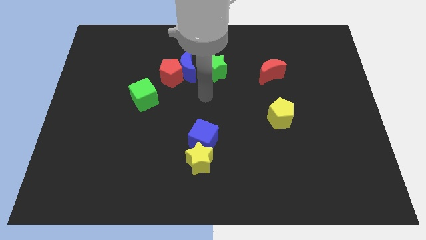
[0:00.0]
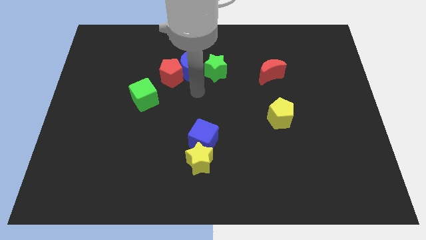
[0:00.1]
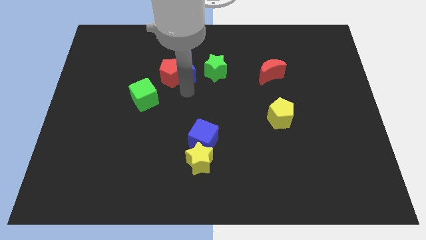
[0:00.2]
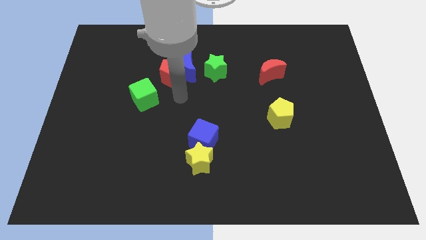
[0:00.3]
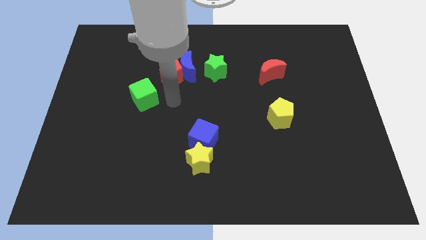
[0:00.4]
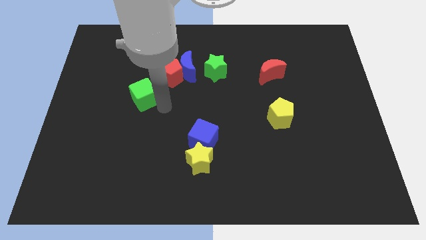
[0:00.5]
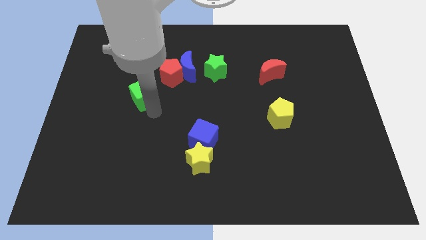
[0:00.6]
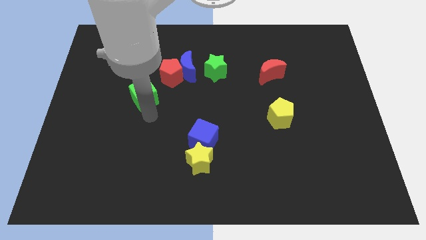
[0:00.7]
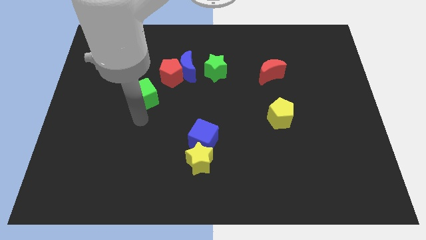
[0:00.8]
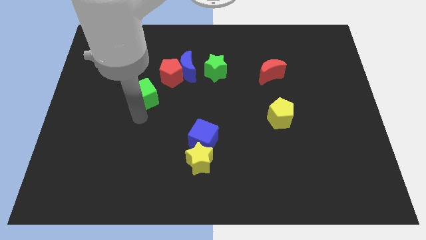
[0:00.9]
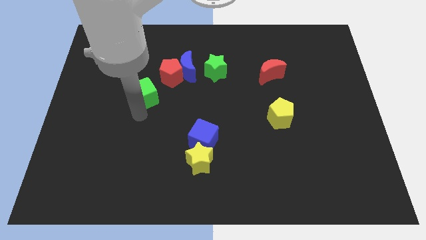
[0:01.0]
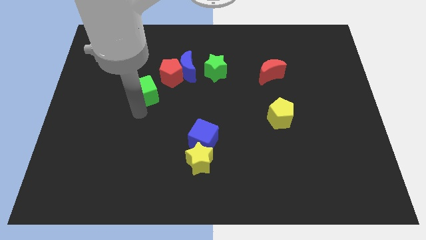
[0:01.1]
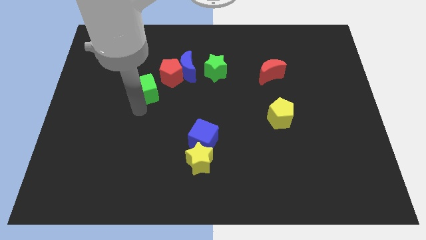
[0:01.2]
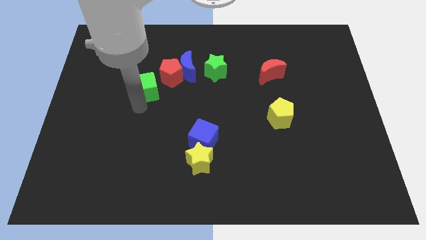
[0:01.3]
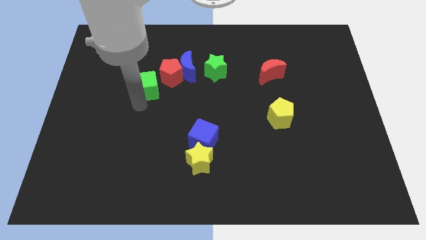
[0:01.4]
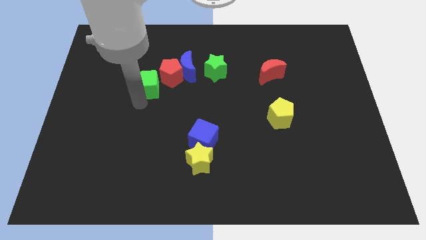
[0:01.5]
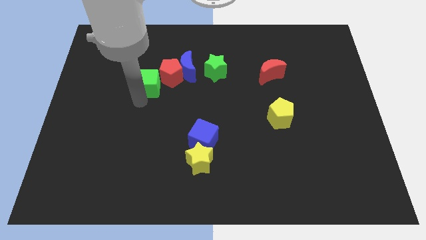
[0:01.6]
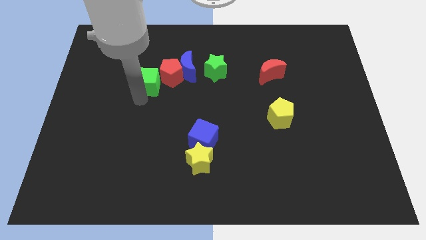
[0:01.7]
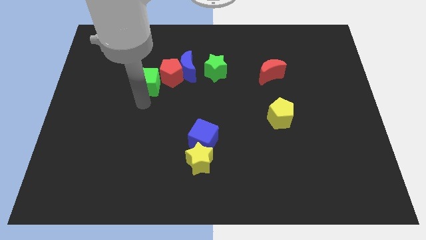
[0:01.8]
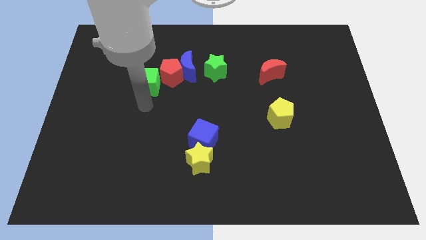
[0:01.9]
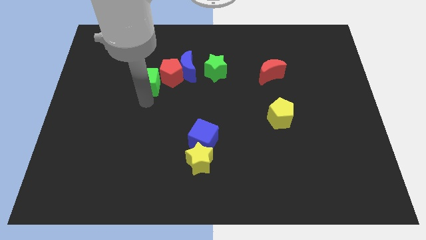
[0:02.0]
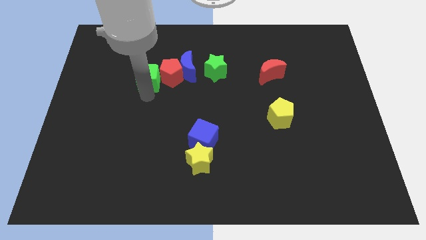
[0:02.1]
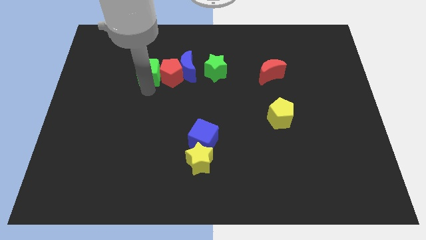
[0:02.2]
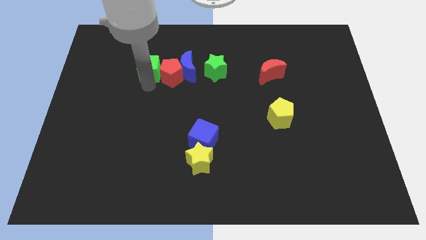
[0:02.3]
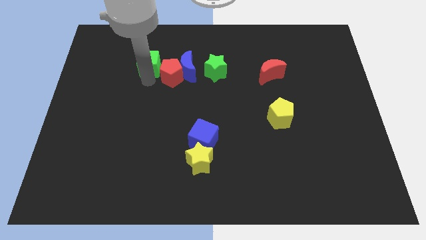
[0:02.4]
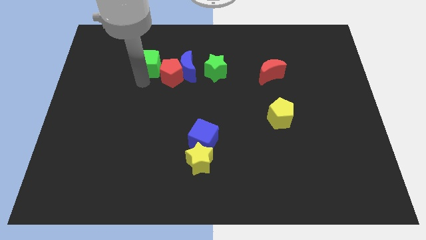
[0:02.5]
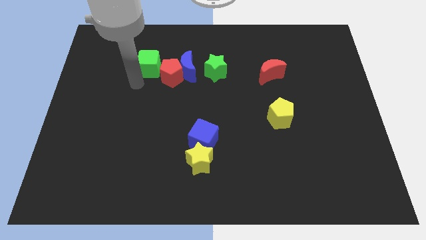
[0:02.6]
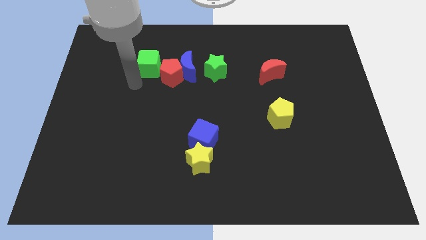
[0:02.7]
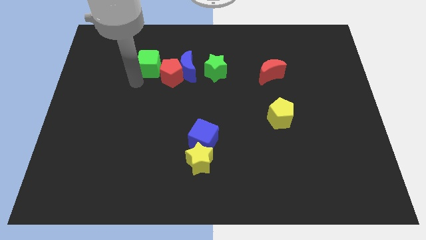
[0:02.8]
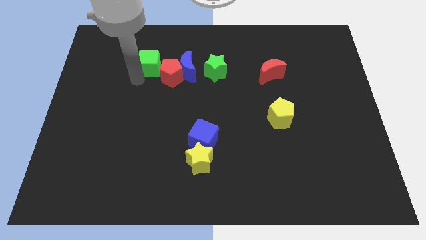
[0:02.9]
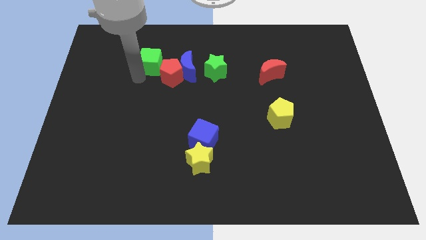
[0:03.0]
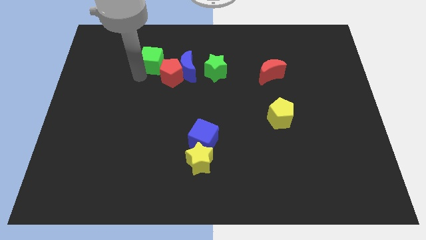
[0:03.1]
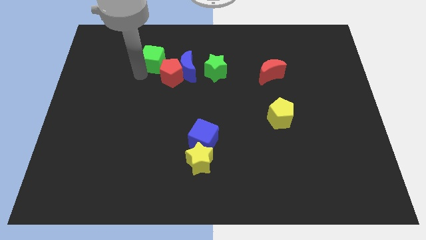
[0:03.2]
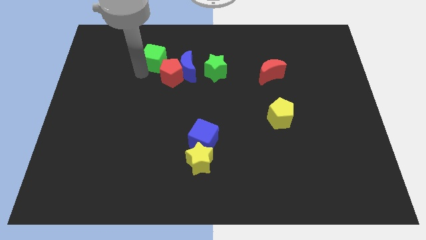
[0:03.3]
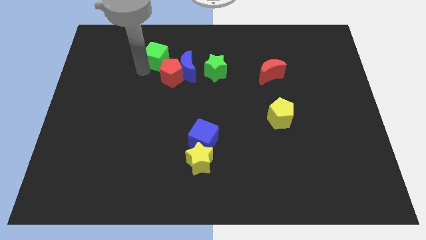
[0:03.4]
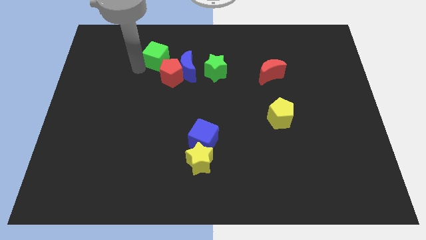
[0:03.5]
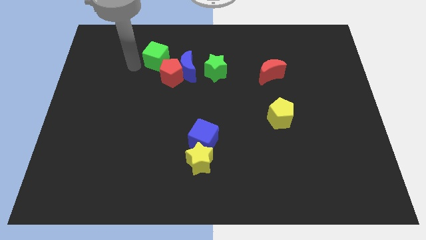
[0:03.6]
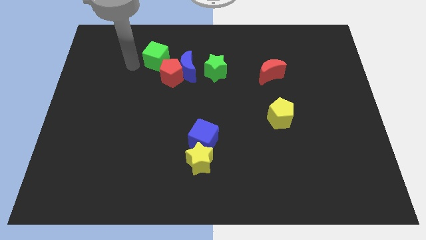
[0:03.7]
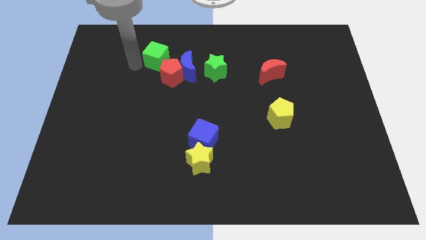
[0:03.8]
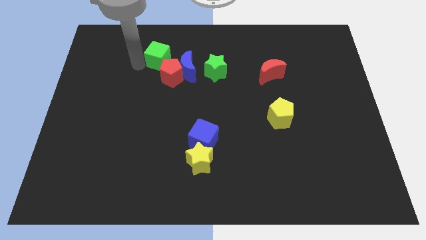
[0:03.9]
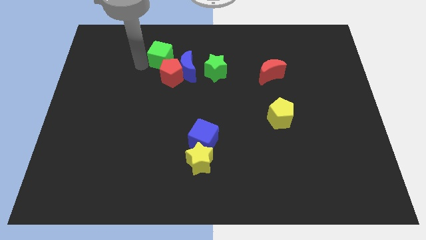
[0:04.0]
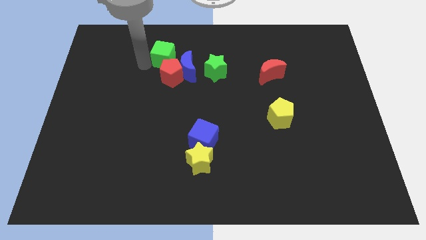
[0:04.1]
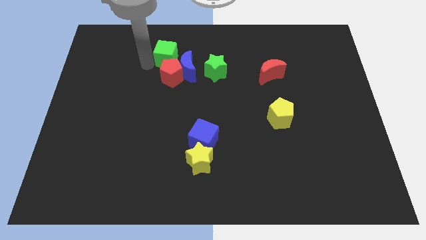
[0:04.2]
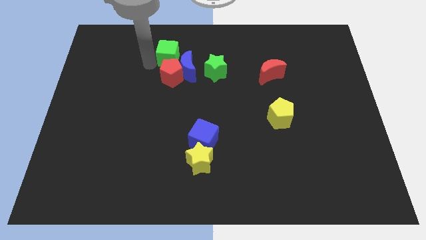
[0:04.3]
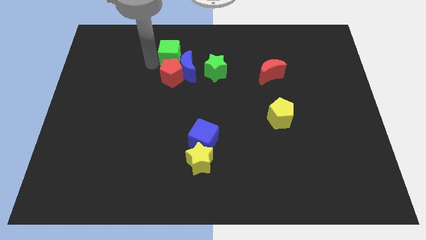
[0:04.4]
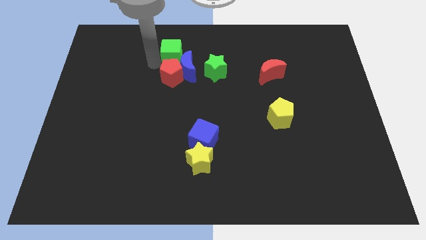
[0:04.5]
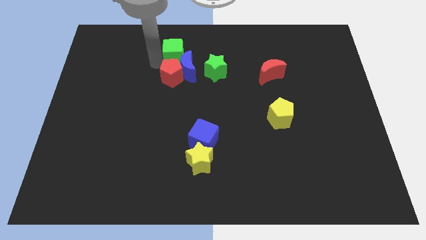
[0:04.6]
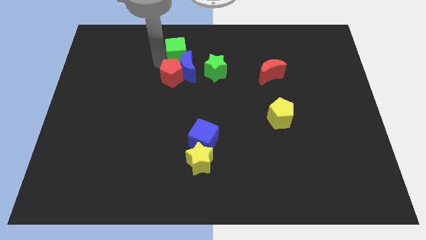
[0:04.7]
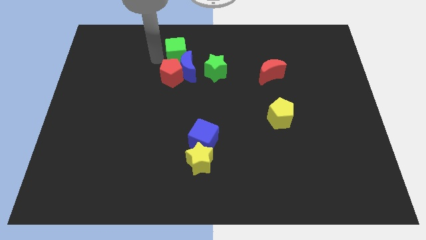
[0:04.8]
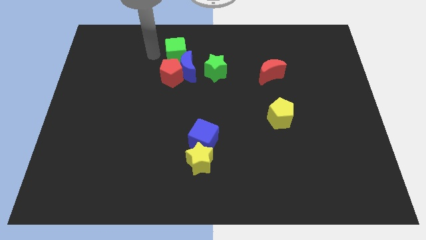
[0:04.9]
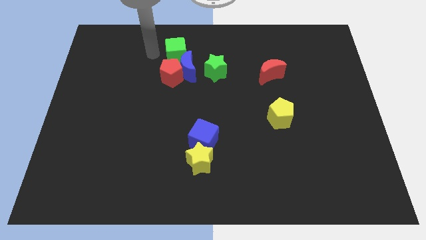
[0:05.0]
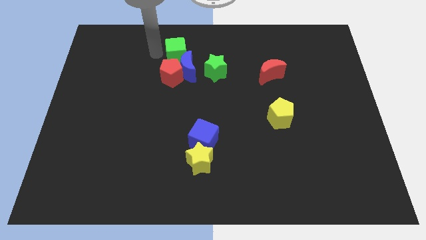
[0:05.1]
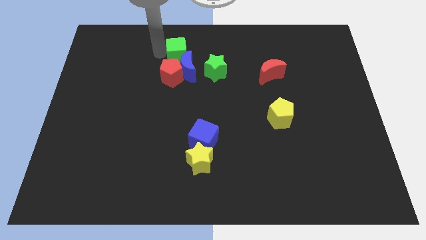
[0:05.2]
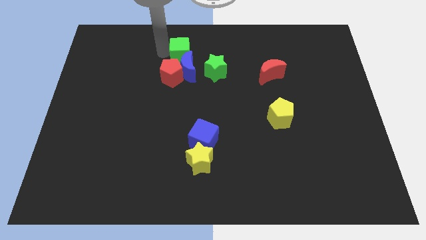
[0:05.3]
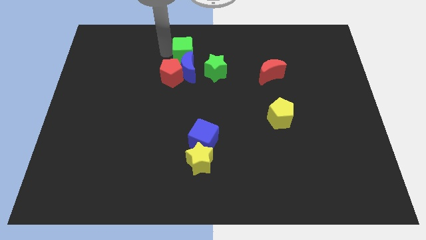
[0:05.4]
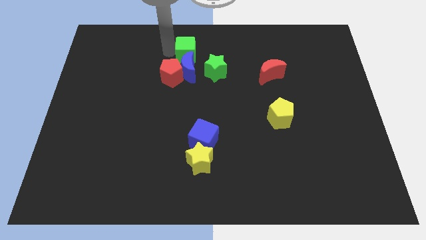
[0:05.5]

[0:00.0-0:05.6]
slide the green cube to the top right side of the blue moon

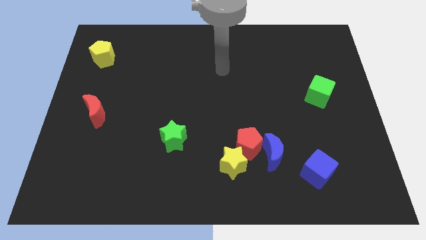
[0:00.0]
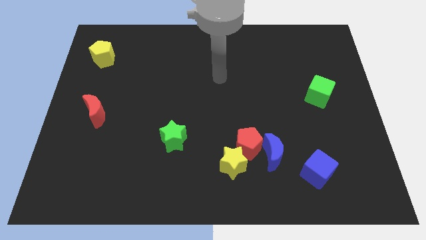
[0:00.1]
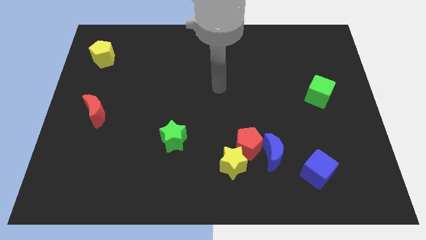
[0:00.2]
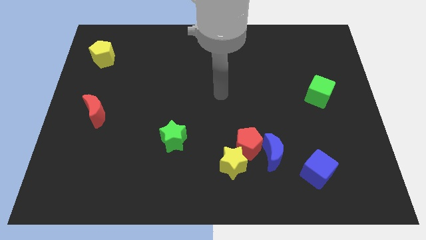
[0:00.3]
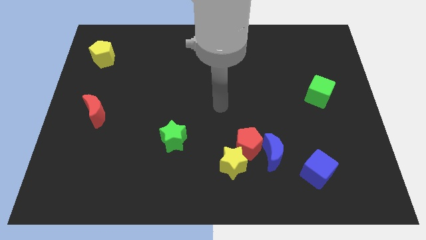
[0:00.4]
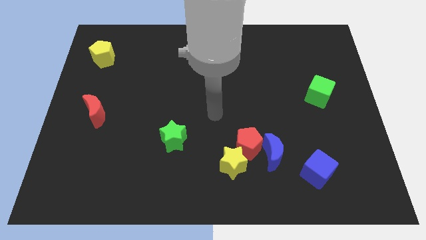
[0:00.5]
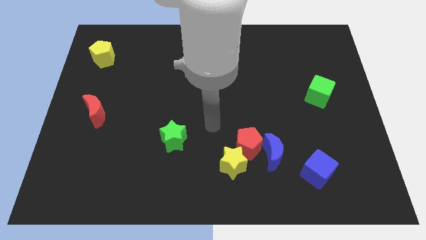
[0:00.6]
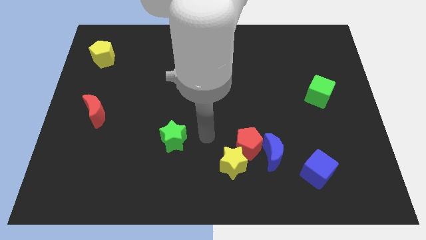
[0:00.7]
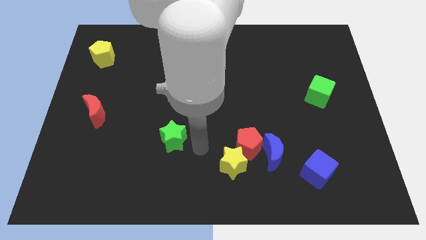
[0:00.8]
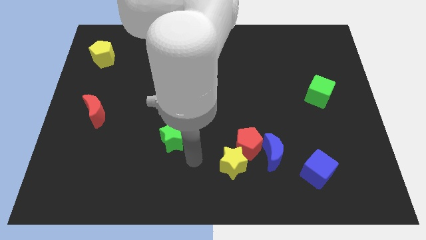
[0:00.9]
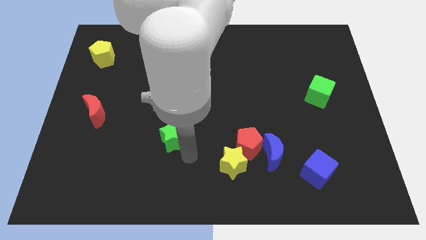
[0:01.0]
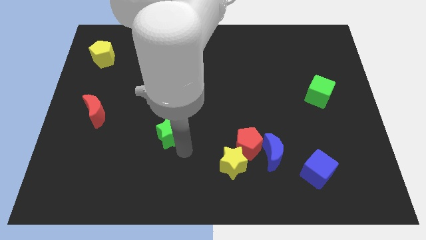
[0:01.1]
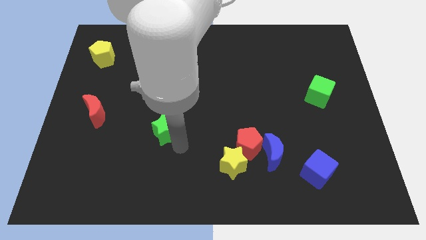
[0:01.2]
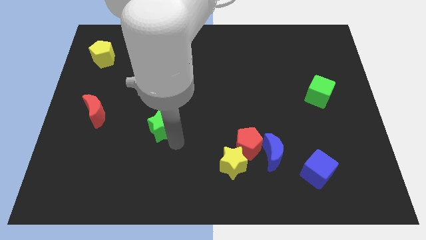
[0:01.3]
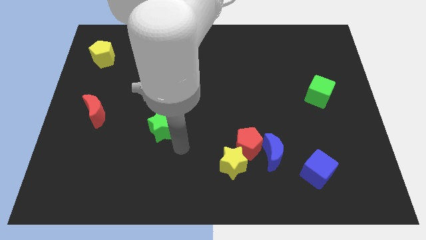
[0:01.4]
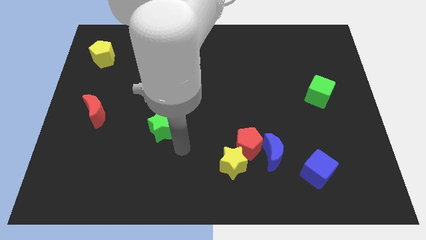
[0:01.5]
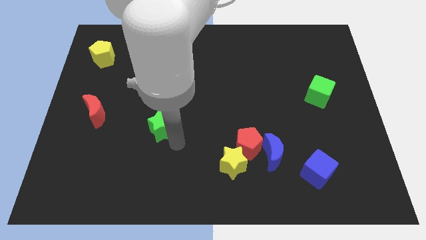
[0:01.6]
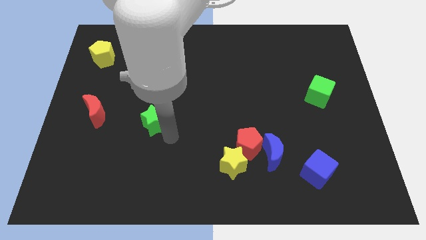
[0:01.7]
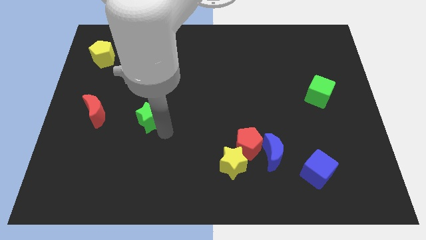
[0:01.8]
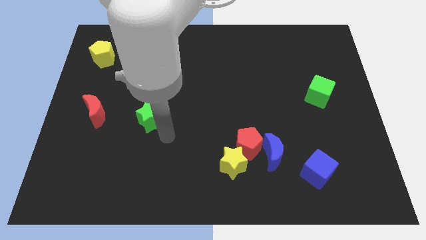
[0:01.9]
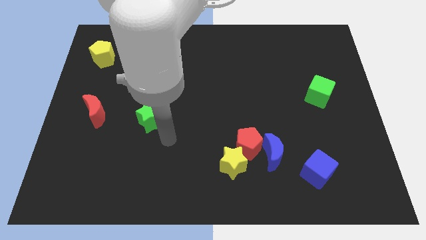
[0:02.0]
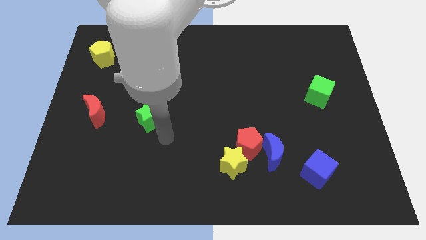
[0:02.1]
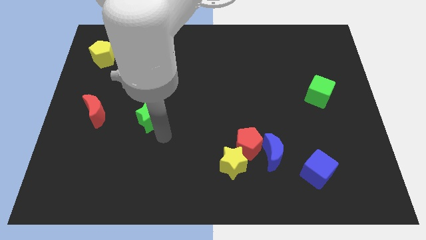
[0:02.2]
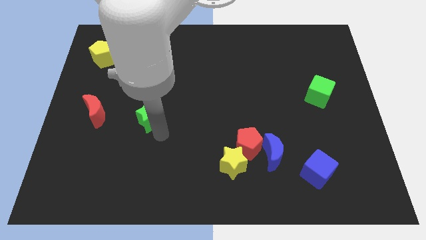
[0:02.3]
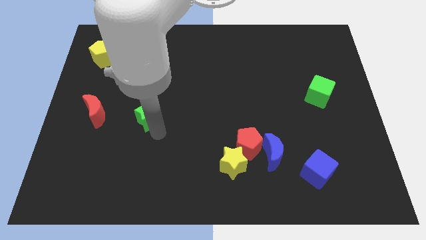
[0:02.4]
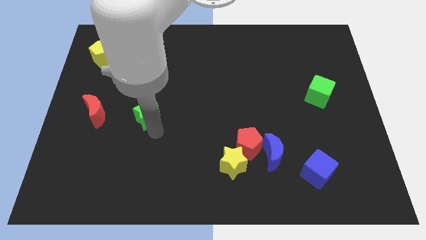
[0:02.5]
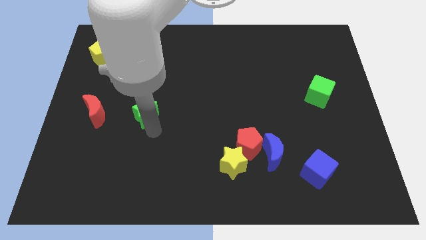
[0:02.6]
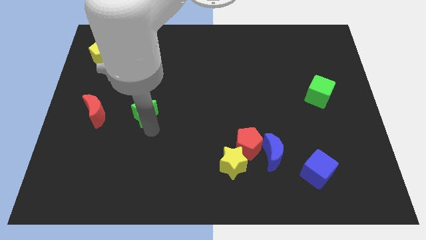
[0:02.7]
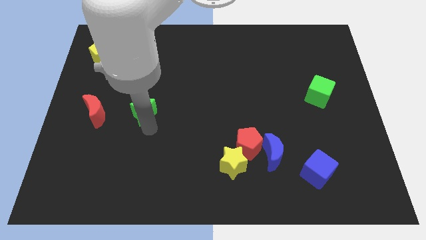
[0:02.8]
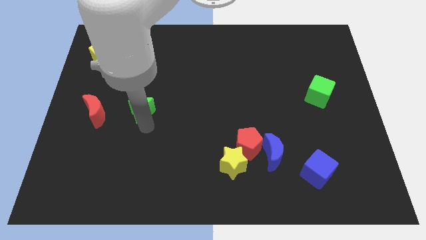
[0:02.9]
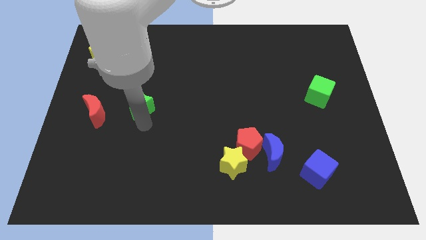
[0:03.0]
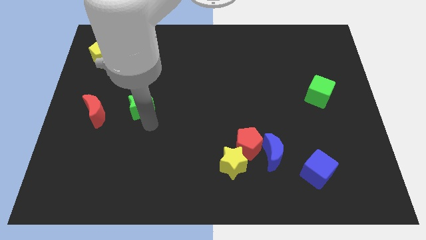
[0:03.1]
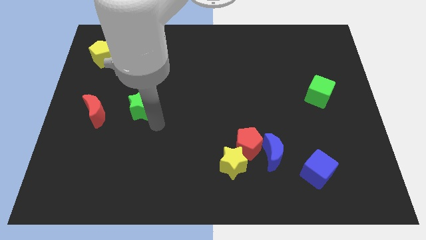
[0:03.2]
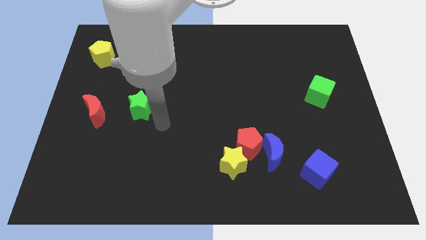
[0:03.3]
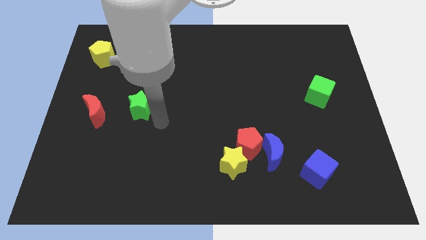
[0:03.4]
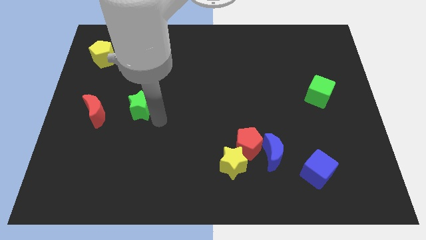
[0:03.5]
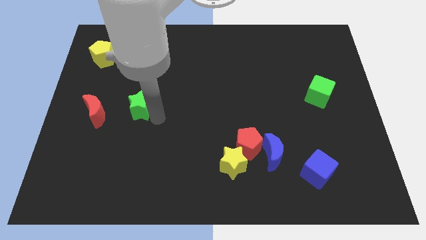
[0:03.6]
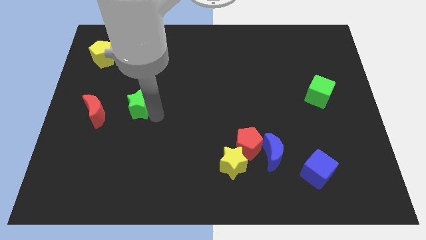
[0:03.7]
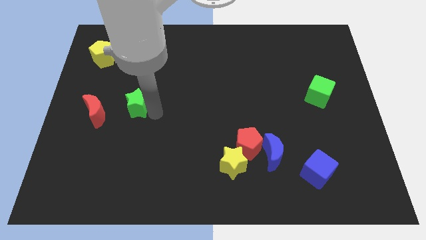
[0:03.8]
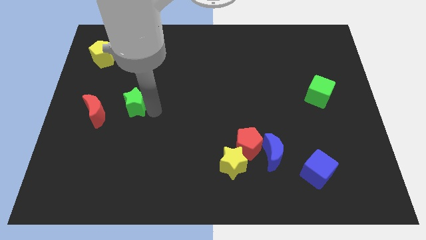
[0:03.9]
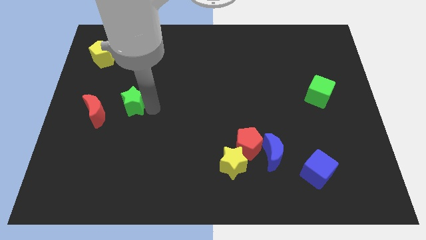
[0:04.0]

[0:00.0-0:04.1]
slide the green star to the top right of the red moon
